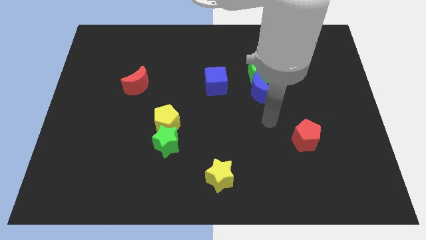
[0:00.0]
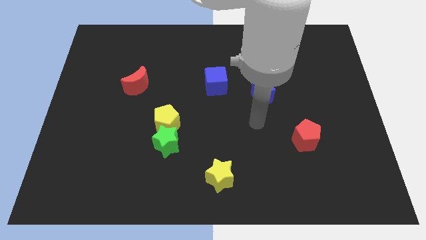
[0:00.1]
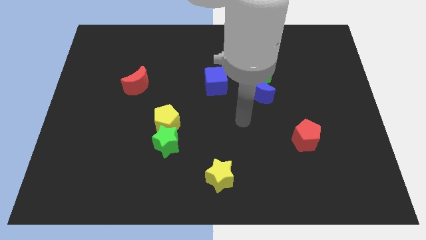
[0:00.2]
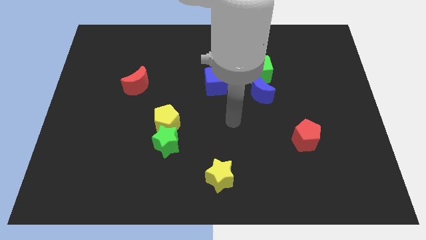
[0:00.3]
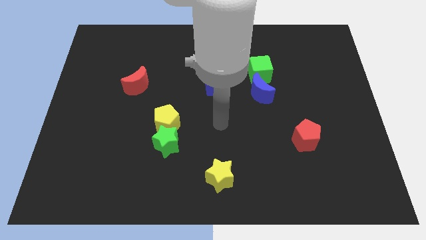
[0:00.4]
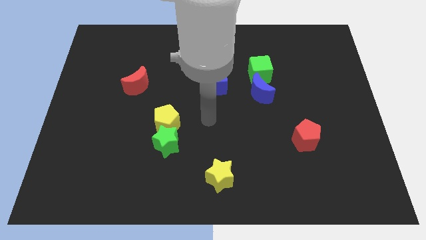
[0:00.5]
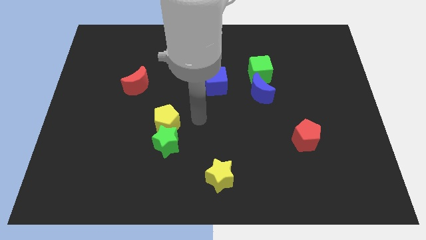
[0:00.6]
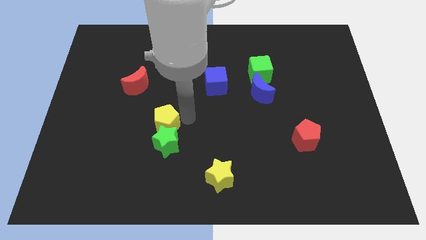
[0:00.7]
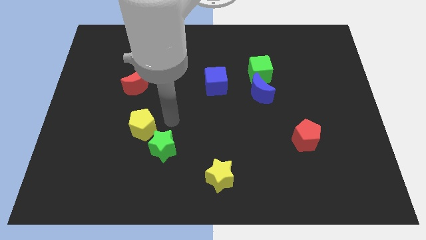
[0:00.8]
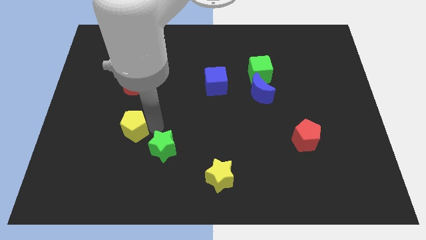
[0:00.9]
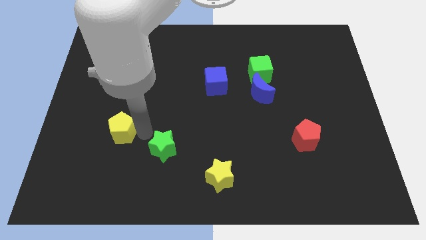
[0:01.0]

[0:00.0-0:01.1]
move the green star away from the yellow pentagon

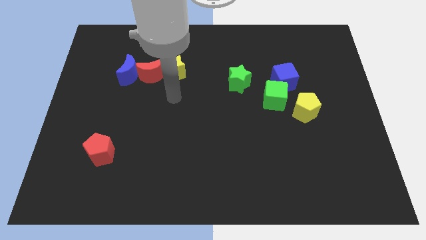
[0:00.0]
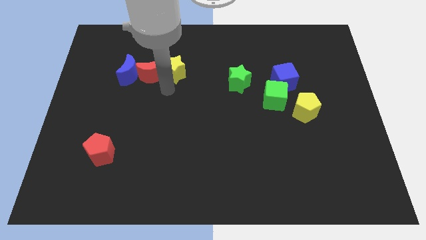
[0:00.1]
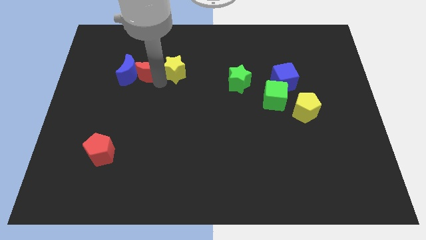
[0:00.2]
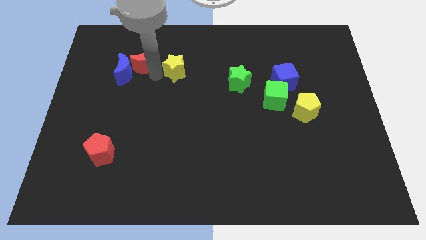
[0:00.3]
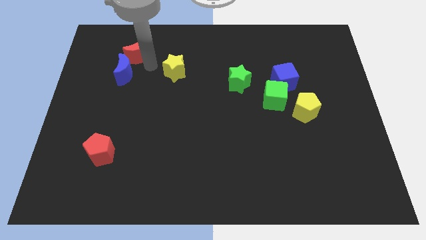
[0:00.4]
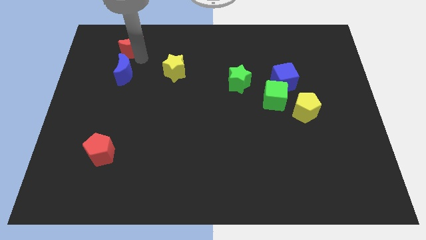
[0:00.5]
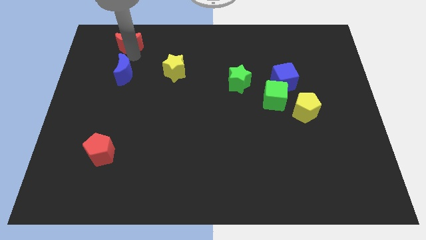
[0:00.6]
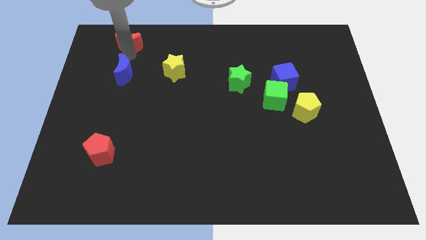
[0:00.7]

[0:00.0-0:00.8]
move the blue moon away from the red moon

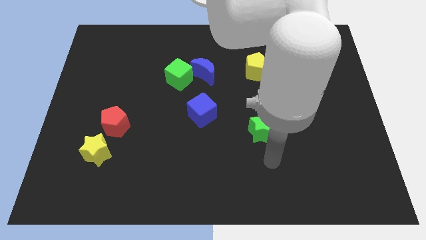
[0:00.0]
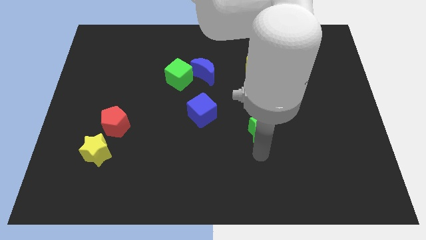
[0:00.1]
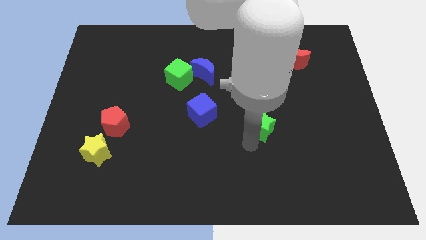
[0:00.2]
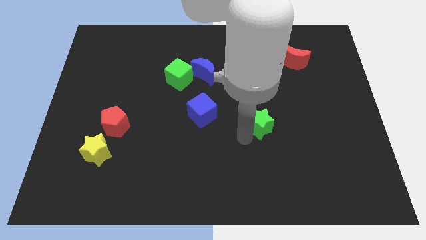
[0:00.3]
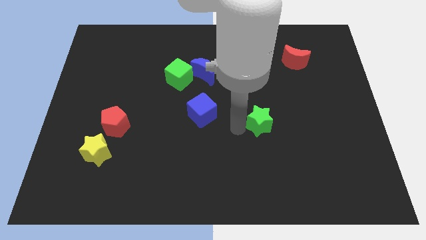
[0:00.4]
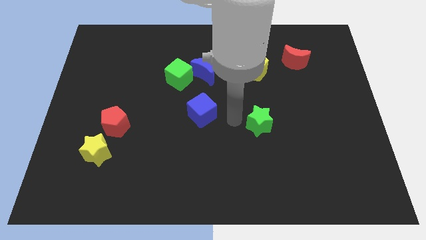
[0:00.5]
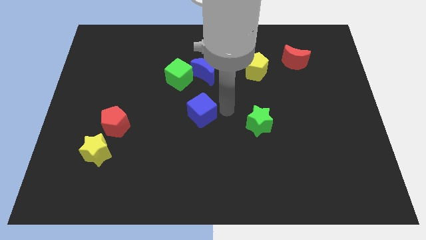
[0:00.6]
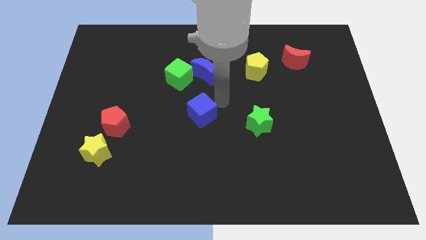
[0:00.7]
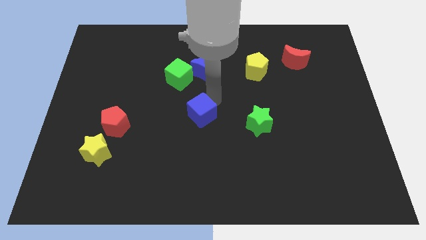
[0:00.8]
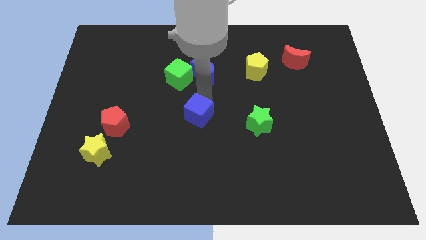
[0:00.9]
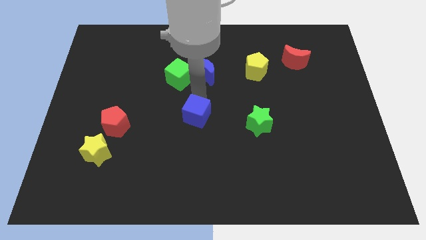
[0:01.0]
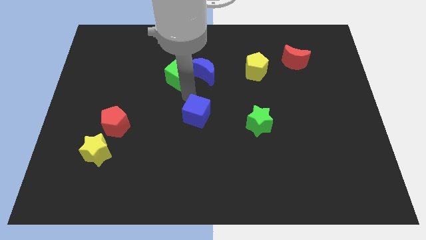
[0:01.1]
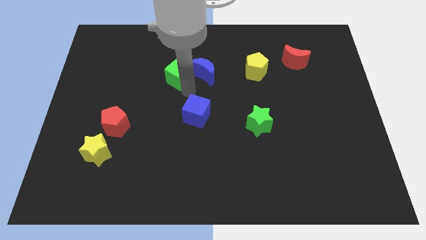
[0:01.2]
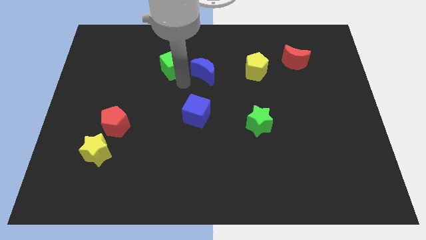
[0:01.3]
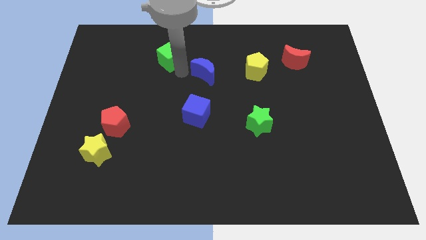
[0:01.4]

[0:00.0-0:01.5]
separate the blue moon from the green cube

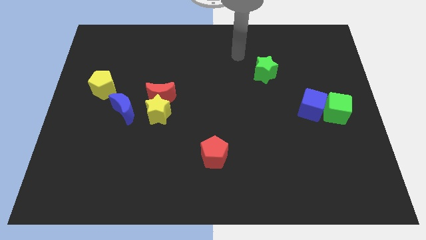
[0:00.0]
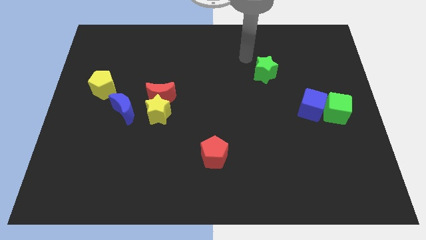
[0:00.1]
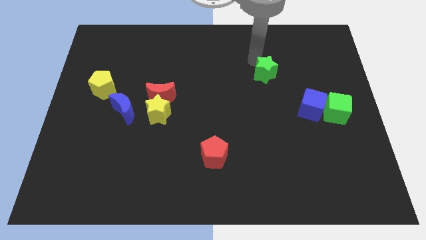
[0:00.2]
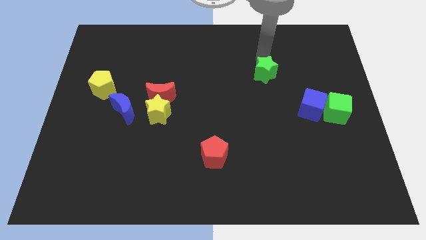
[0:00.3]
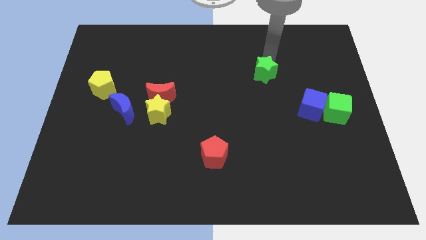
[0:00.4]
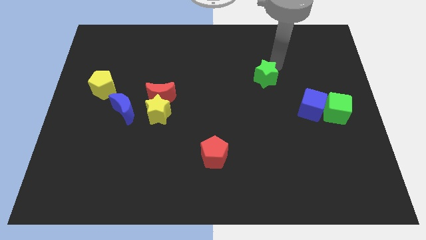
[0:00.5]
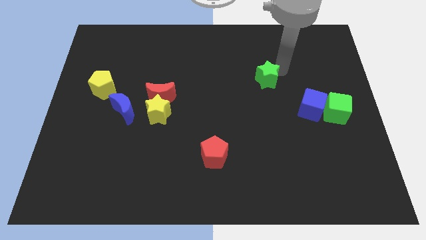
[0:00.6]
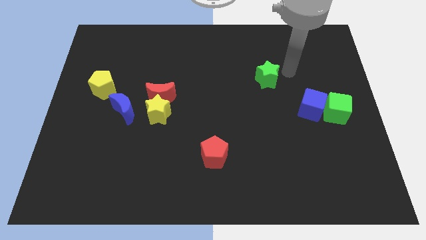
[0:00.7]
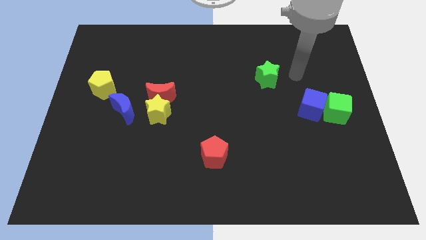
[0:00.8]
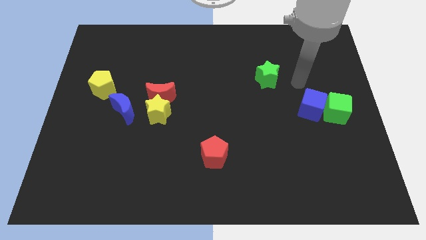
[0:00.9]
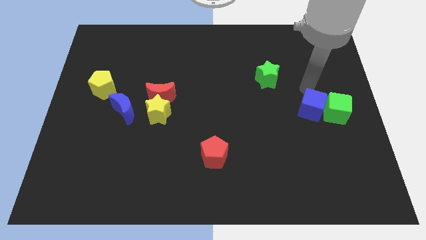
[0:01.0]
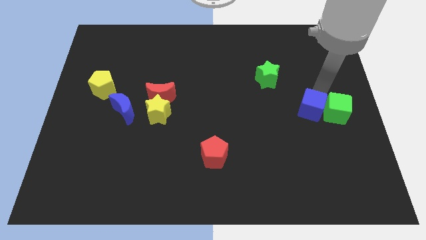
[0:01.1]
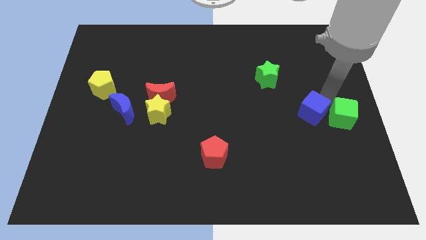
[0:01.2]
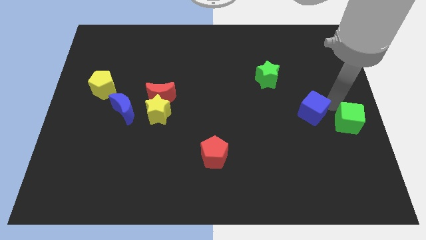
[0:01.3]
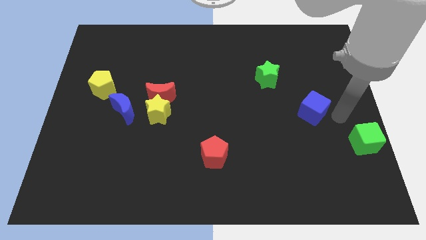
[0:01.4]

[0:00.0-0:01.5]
move the blue cube away from the green cube

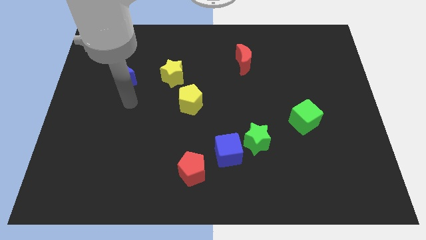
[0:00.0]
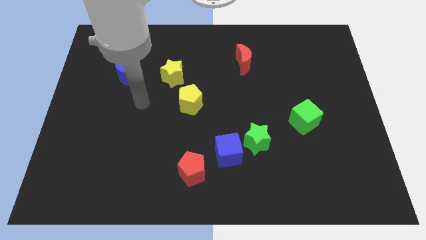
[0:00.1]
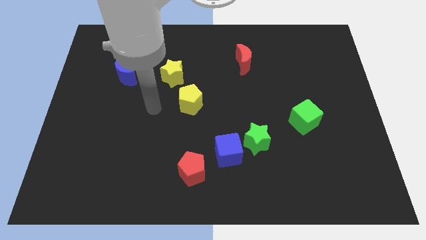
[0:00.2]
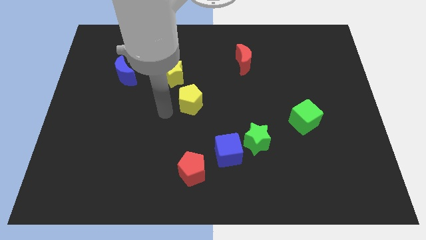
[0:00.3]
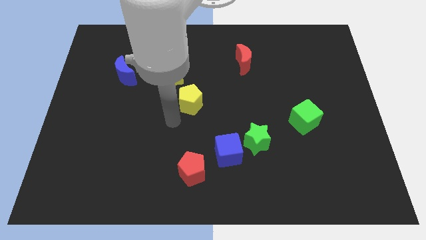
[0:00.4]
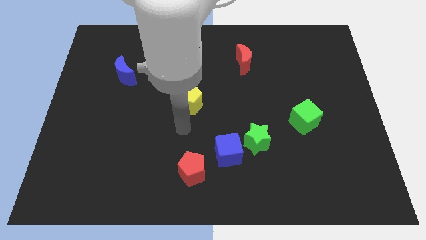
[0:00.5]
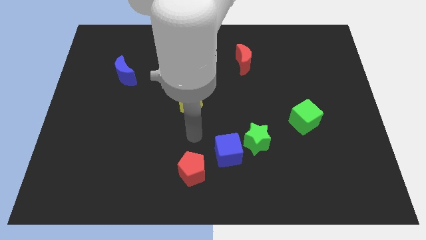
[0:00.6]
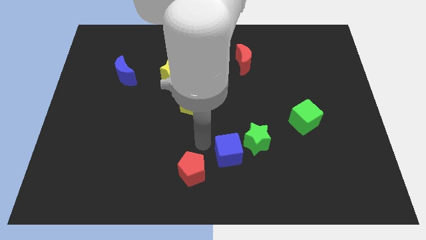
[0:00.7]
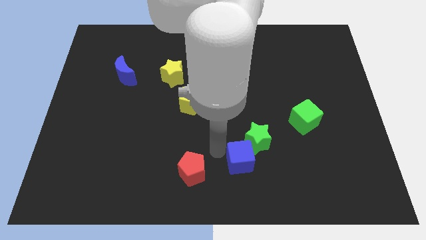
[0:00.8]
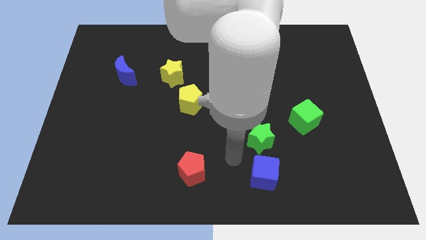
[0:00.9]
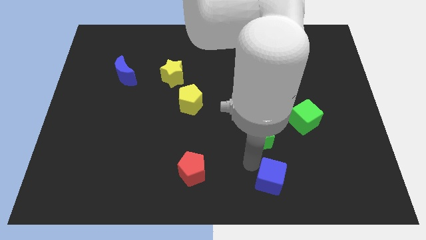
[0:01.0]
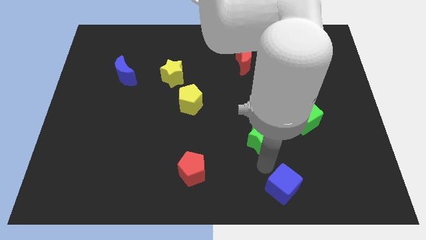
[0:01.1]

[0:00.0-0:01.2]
pull the green star apart from the blue cube

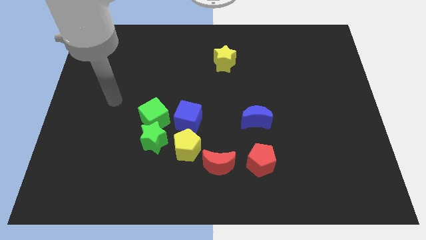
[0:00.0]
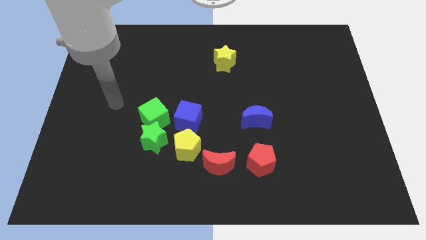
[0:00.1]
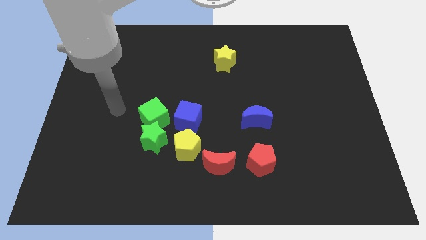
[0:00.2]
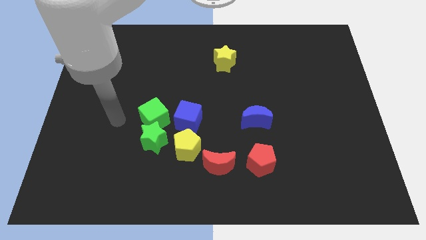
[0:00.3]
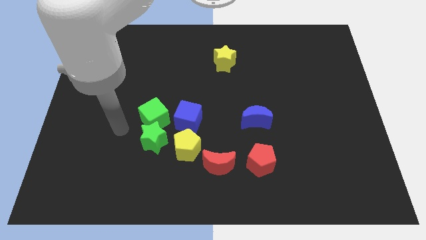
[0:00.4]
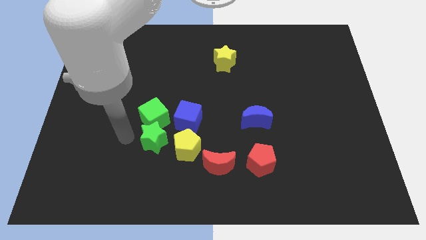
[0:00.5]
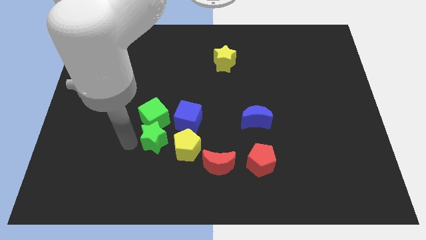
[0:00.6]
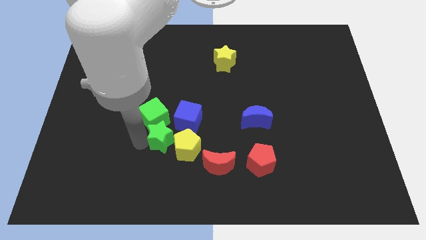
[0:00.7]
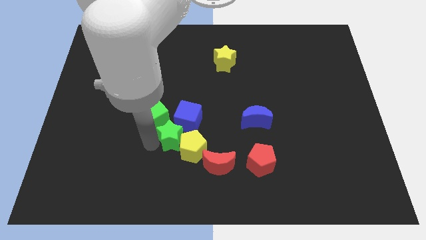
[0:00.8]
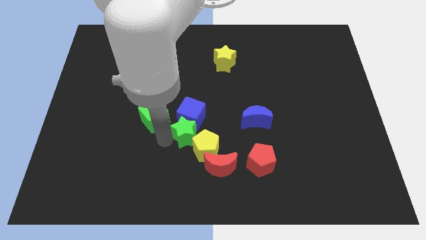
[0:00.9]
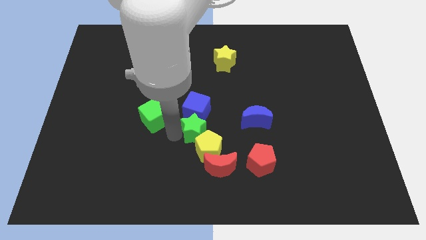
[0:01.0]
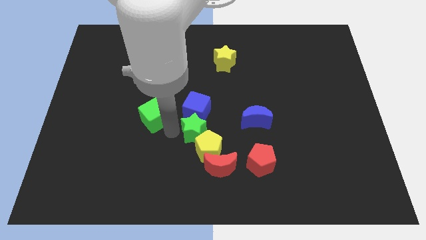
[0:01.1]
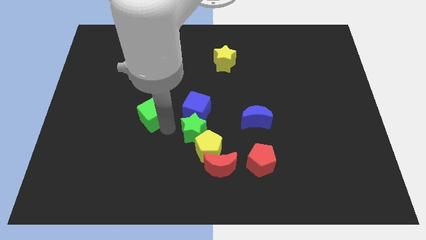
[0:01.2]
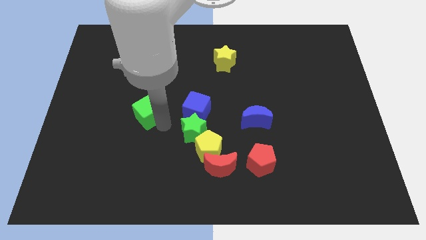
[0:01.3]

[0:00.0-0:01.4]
move the green cube away from the green star and blue cube

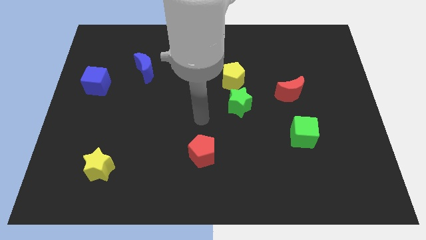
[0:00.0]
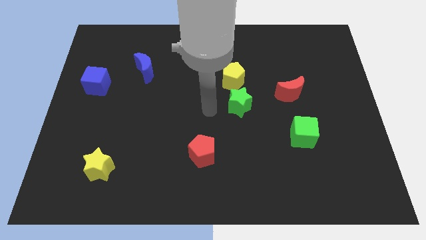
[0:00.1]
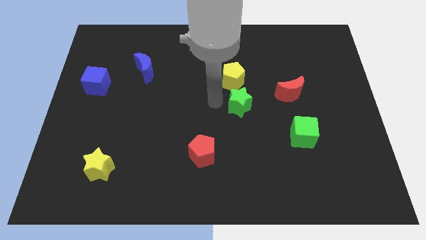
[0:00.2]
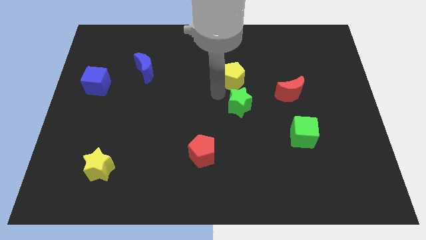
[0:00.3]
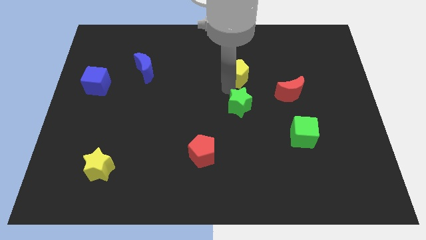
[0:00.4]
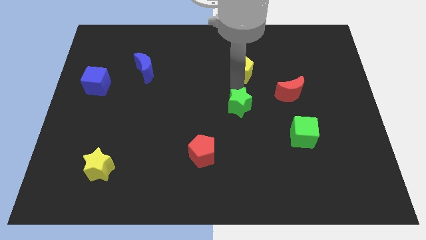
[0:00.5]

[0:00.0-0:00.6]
separate the green star from the yellow pentagon

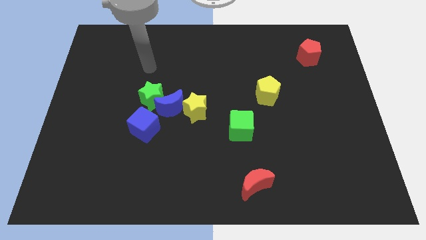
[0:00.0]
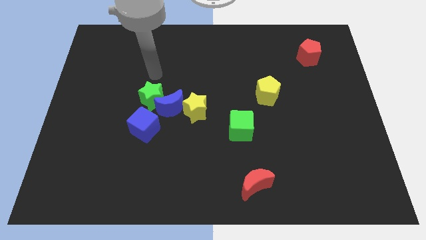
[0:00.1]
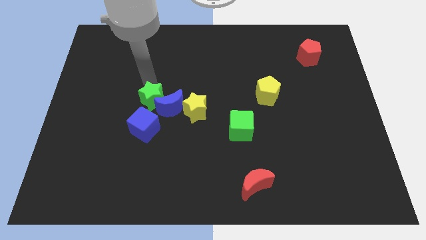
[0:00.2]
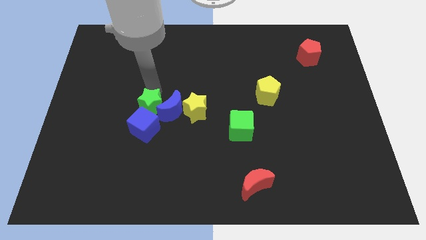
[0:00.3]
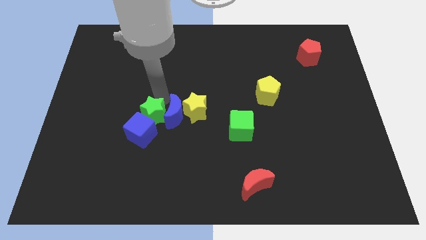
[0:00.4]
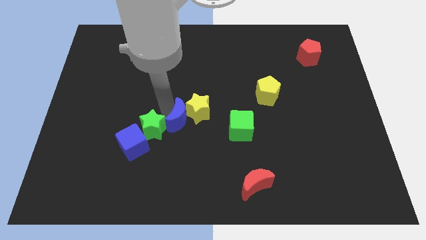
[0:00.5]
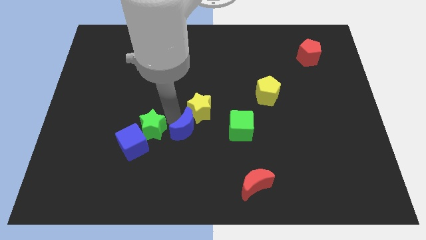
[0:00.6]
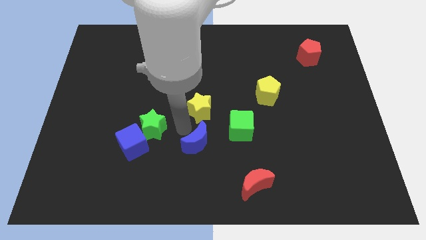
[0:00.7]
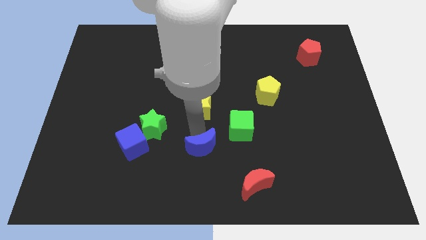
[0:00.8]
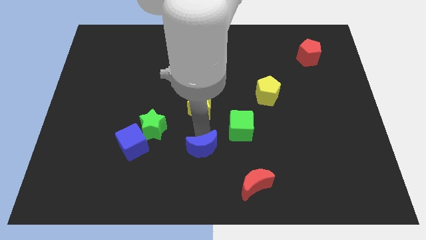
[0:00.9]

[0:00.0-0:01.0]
separate the yellow star from the blue moon

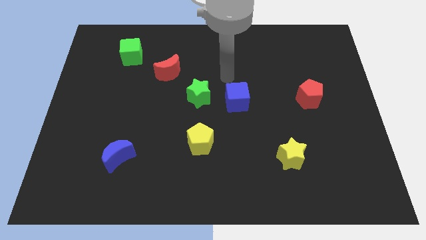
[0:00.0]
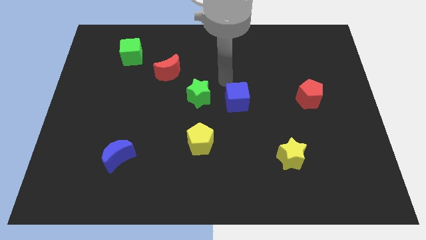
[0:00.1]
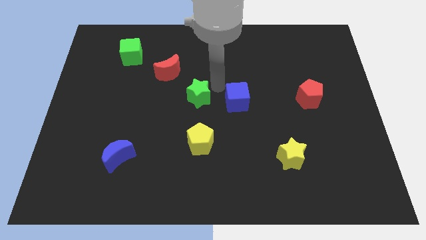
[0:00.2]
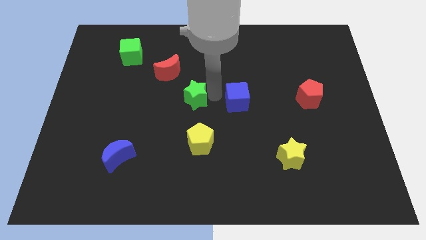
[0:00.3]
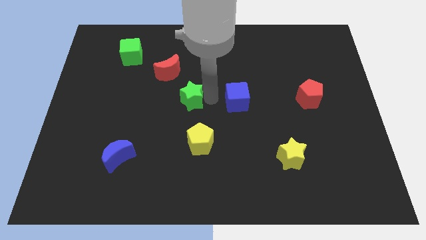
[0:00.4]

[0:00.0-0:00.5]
separate the blue cube from the green star
